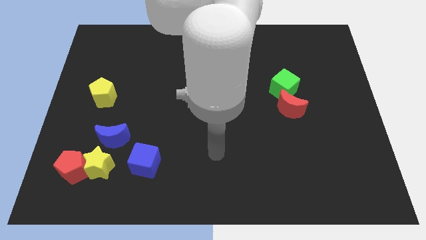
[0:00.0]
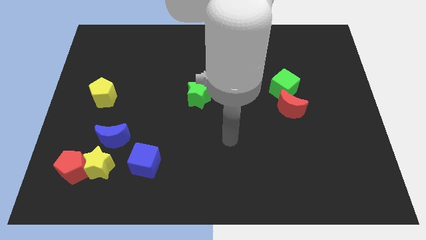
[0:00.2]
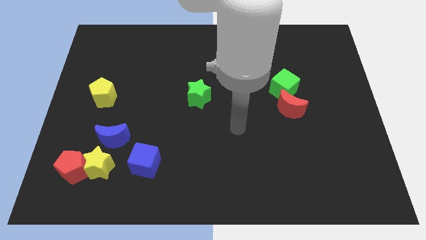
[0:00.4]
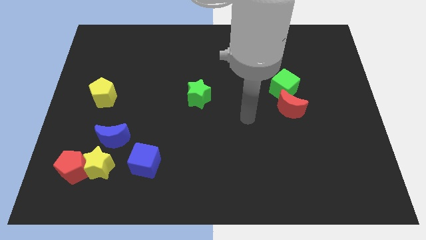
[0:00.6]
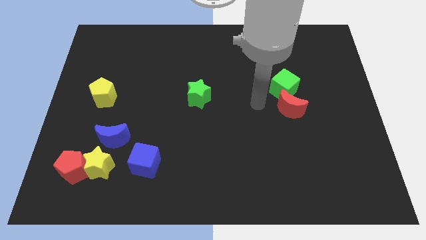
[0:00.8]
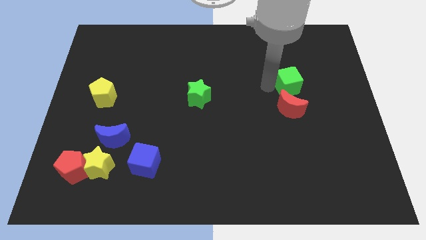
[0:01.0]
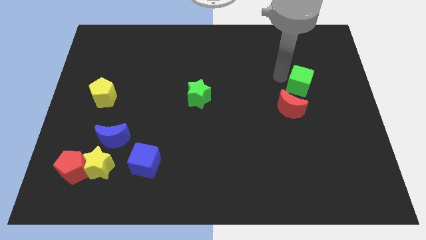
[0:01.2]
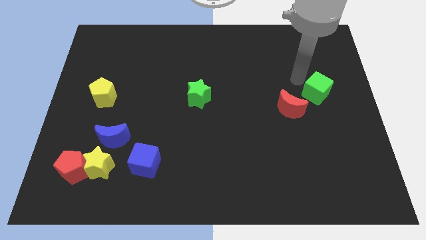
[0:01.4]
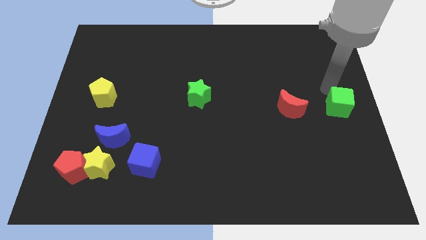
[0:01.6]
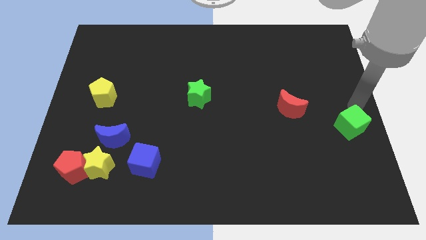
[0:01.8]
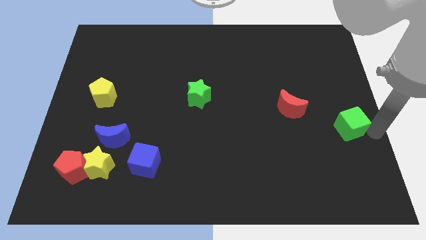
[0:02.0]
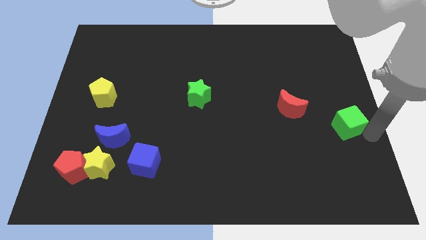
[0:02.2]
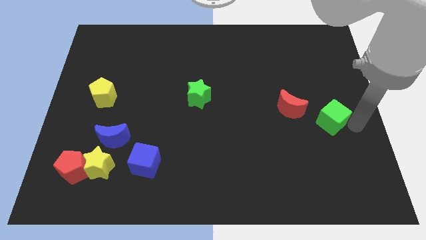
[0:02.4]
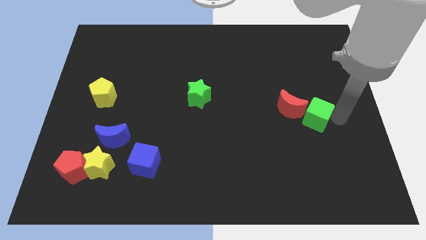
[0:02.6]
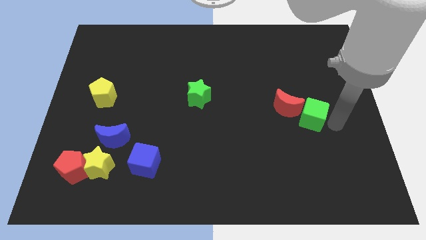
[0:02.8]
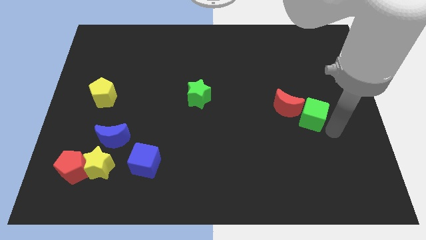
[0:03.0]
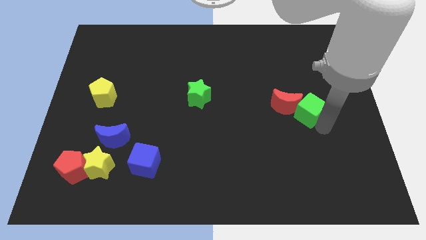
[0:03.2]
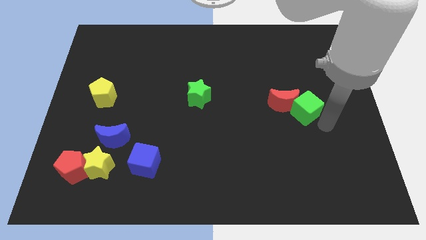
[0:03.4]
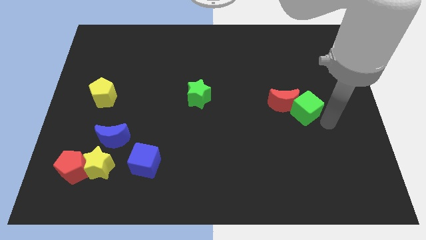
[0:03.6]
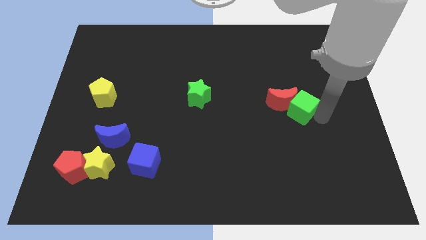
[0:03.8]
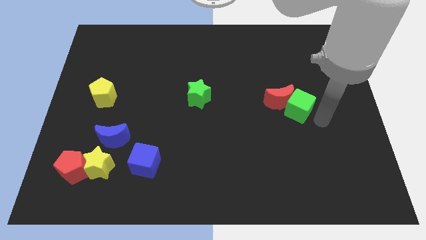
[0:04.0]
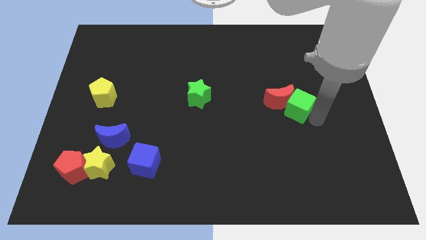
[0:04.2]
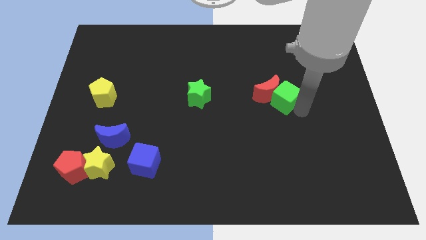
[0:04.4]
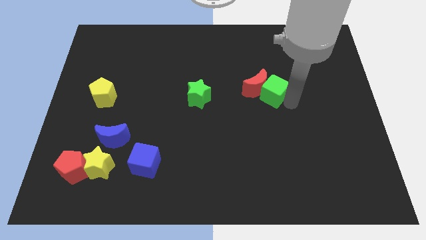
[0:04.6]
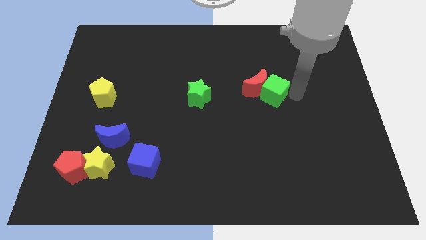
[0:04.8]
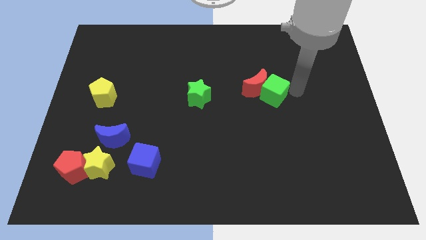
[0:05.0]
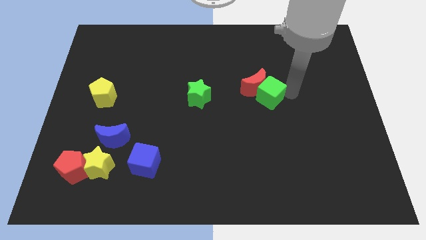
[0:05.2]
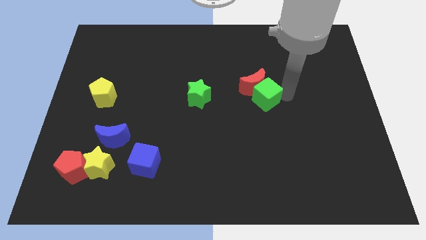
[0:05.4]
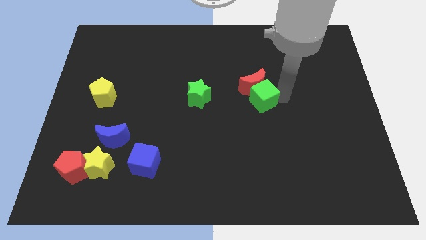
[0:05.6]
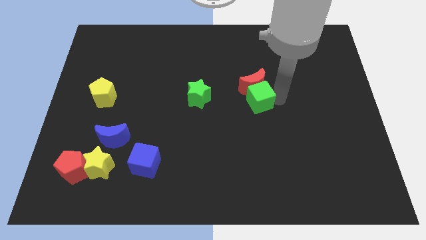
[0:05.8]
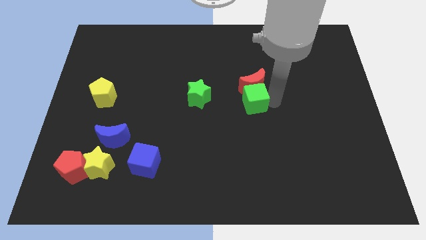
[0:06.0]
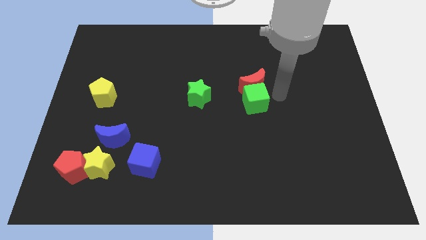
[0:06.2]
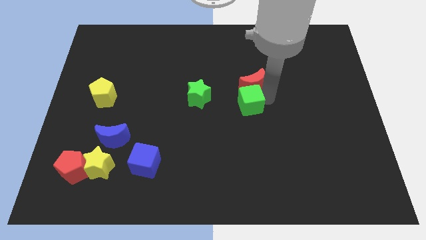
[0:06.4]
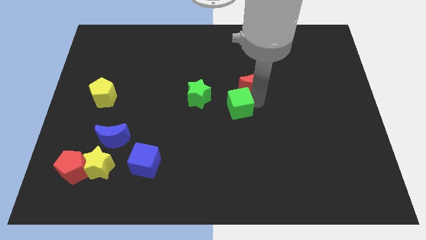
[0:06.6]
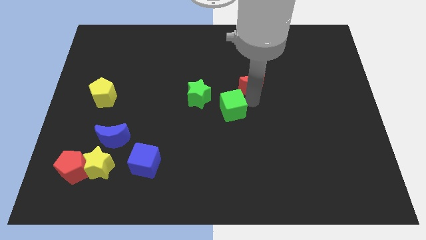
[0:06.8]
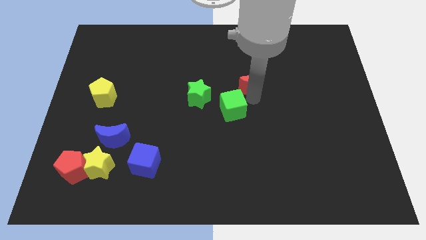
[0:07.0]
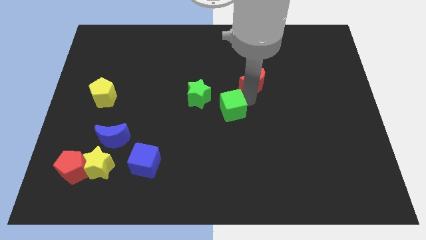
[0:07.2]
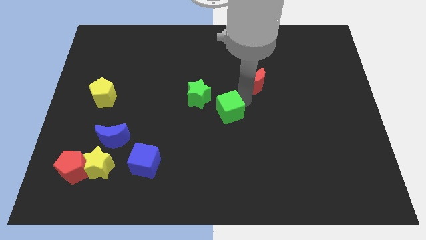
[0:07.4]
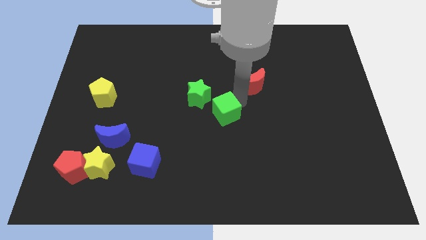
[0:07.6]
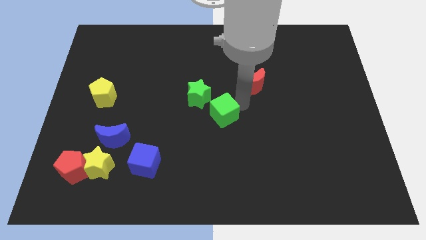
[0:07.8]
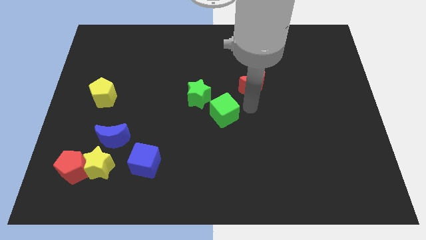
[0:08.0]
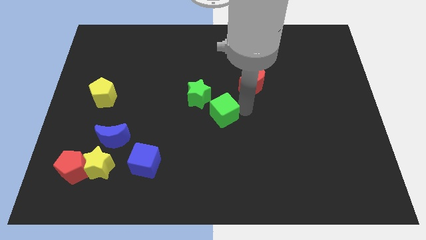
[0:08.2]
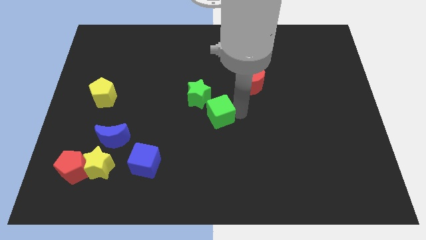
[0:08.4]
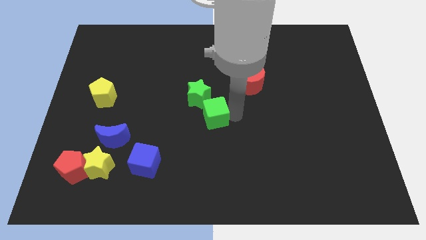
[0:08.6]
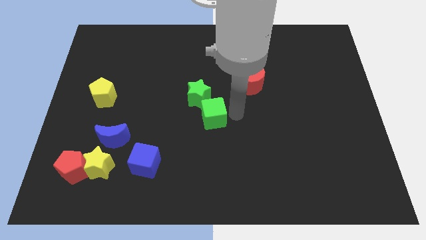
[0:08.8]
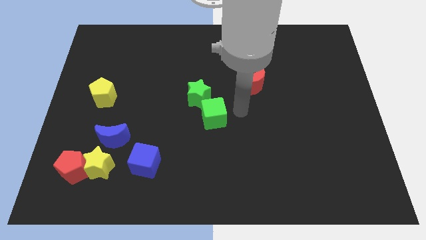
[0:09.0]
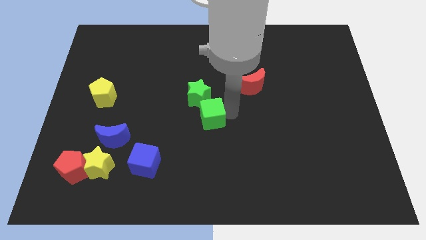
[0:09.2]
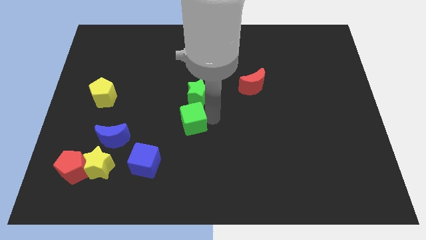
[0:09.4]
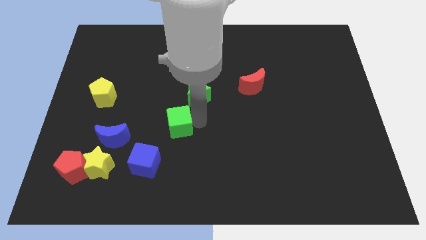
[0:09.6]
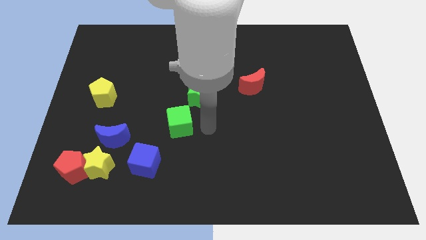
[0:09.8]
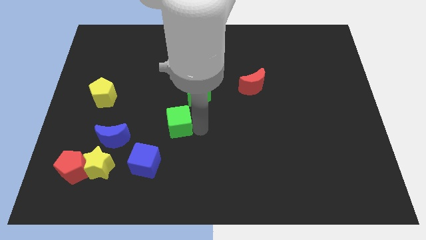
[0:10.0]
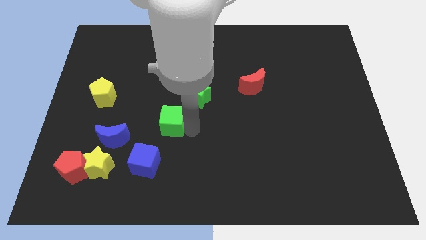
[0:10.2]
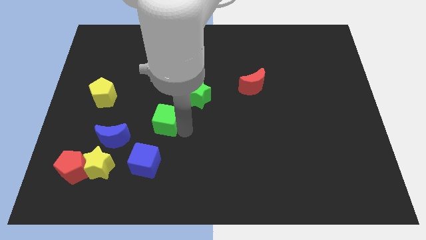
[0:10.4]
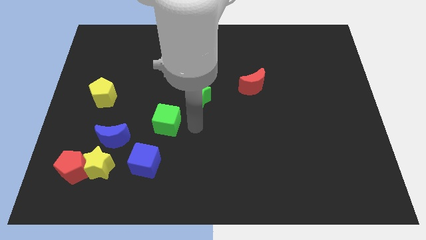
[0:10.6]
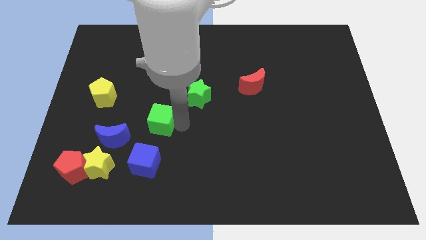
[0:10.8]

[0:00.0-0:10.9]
move the green cube diagonally up and to the right of the blue moon
